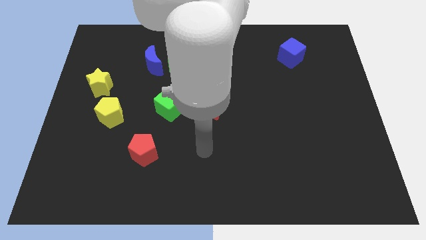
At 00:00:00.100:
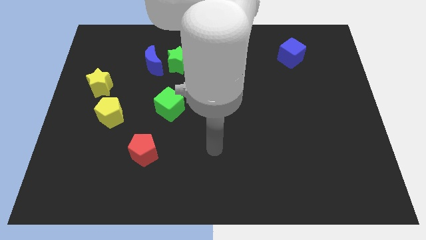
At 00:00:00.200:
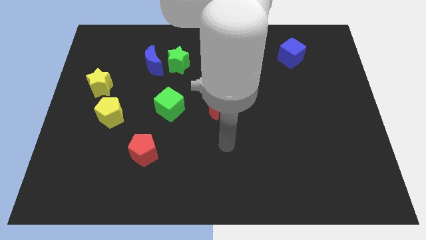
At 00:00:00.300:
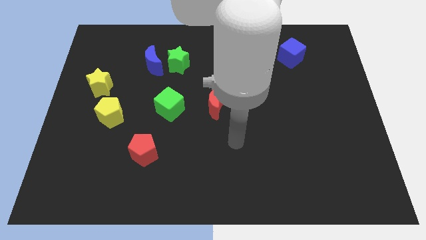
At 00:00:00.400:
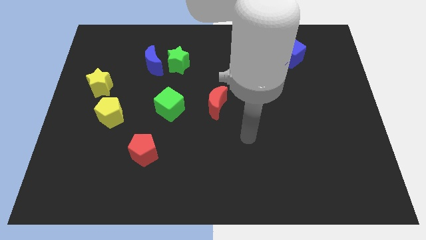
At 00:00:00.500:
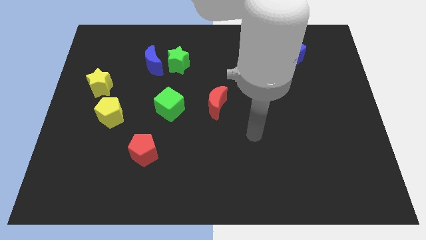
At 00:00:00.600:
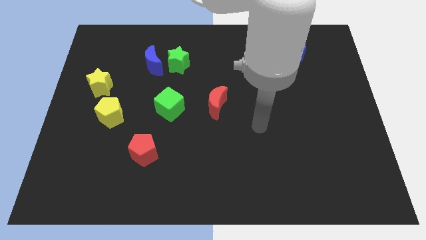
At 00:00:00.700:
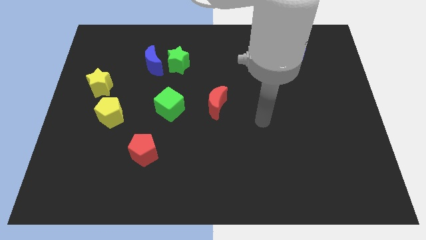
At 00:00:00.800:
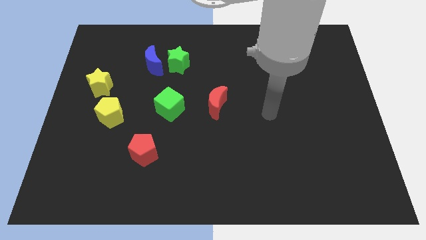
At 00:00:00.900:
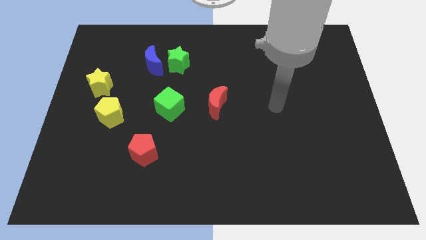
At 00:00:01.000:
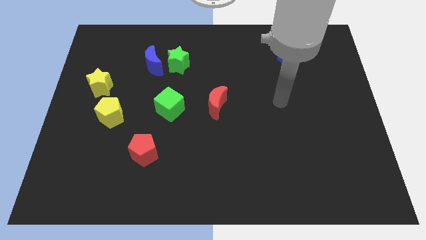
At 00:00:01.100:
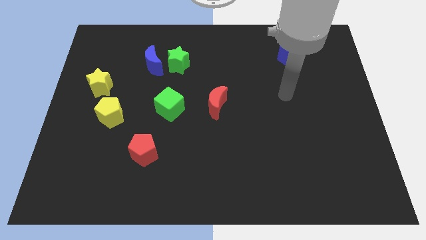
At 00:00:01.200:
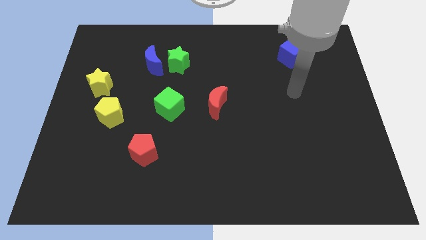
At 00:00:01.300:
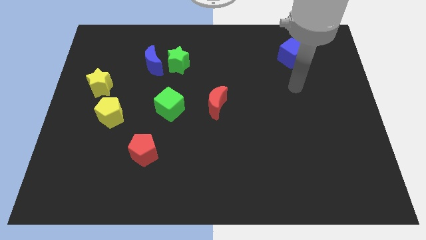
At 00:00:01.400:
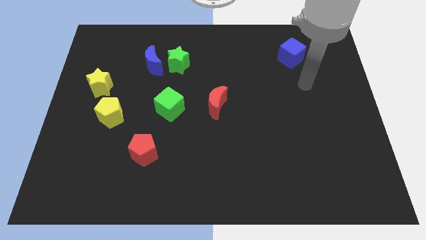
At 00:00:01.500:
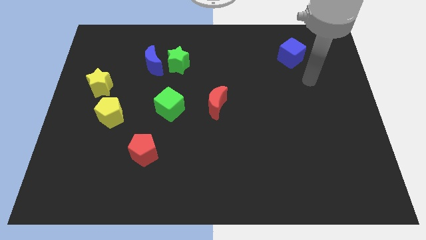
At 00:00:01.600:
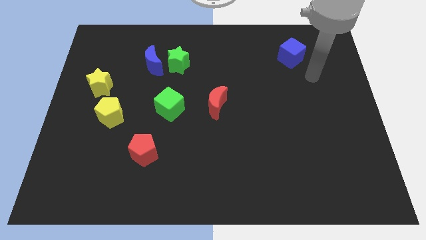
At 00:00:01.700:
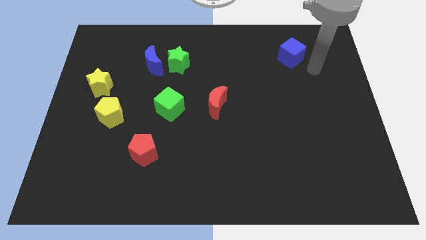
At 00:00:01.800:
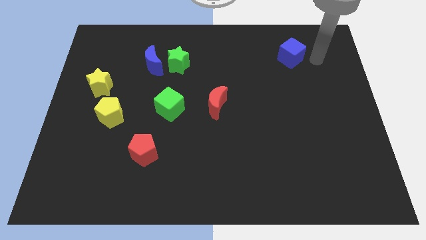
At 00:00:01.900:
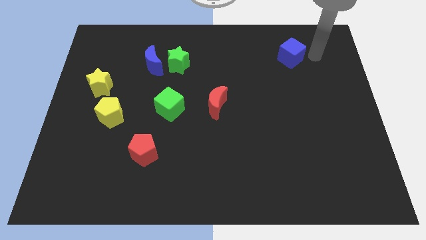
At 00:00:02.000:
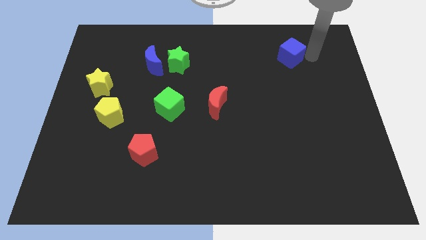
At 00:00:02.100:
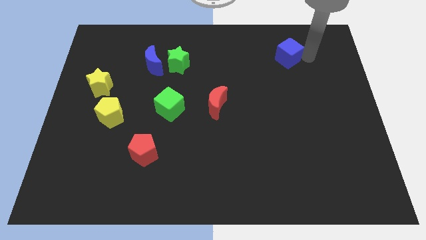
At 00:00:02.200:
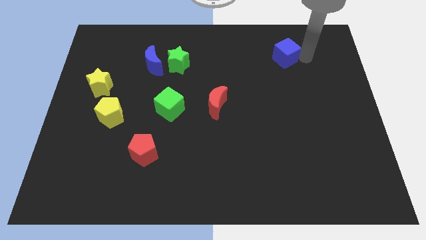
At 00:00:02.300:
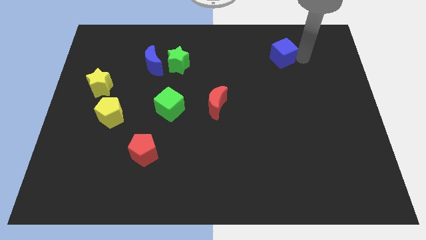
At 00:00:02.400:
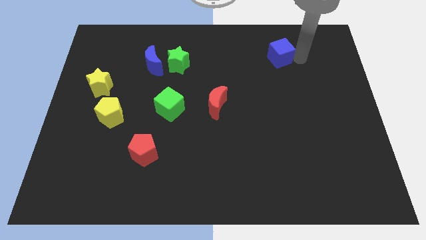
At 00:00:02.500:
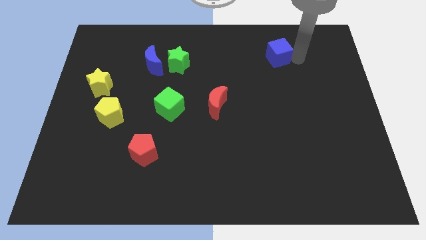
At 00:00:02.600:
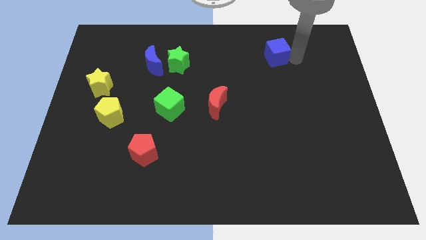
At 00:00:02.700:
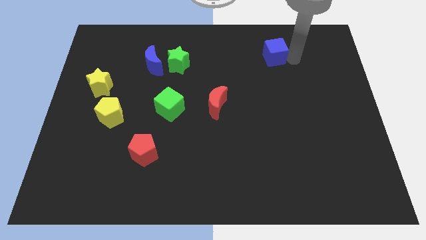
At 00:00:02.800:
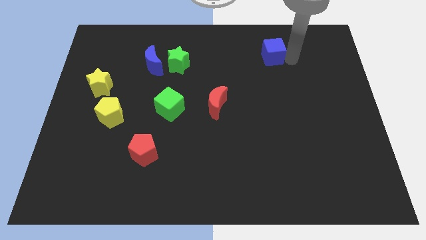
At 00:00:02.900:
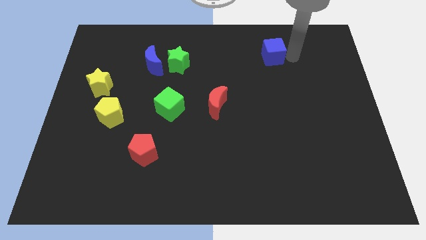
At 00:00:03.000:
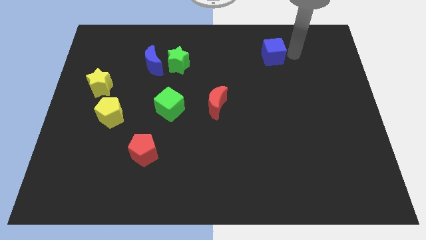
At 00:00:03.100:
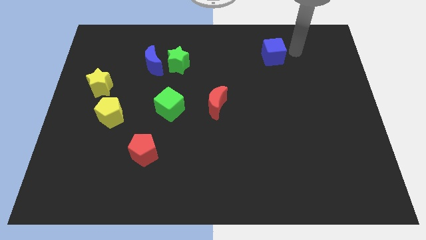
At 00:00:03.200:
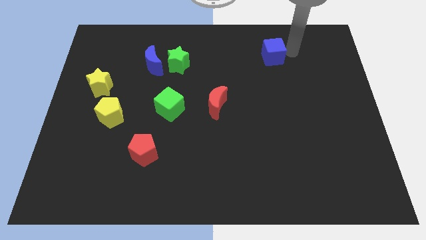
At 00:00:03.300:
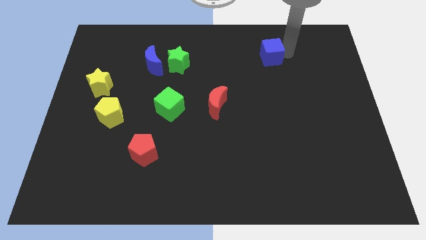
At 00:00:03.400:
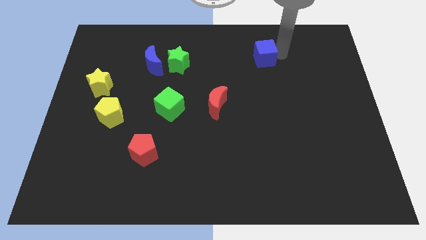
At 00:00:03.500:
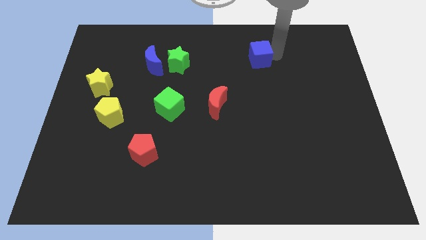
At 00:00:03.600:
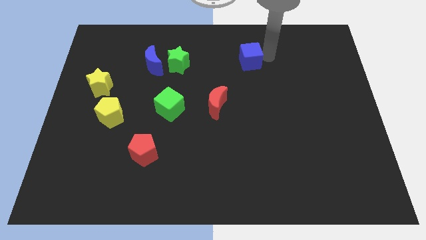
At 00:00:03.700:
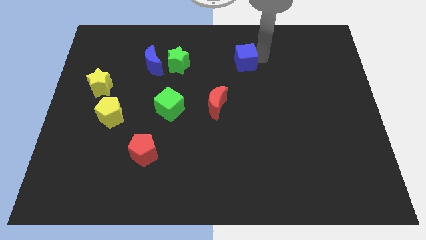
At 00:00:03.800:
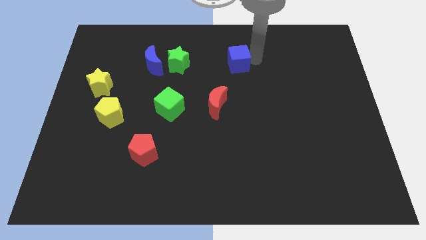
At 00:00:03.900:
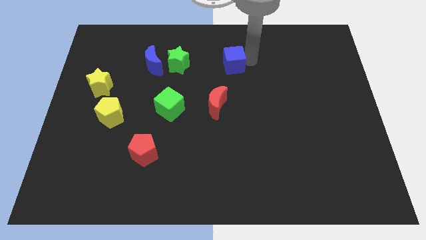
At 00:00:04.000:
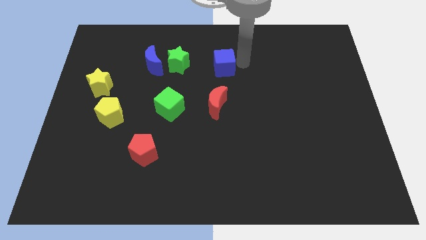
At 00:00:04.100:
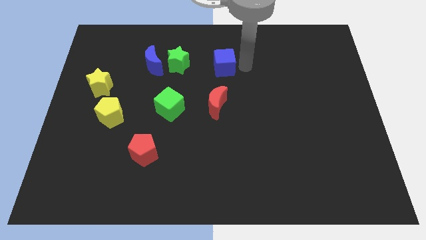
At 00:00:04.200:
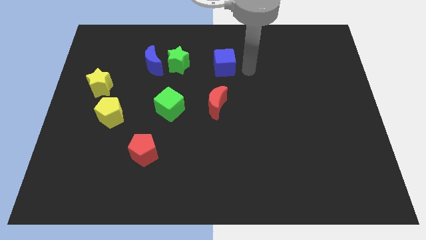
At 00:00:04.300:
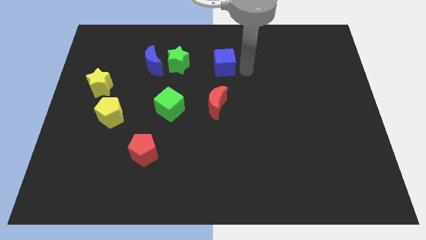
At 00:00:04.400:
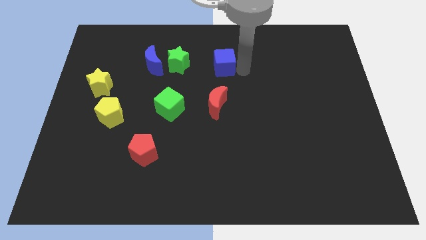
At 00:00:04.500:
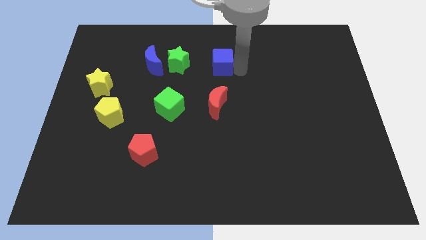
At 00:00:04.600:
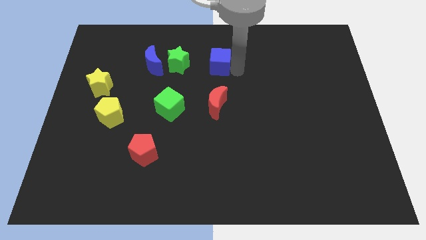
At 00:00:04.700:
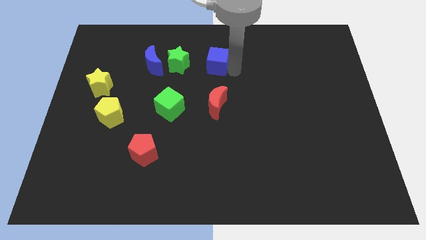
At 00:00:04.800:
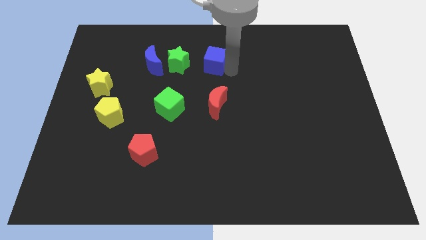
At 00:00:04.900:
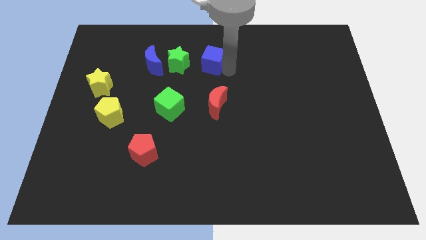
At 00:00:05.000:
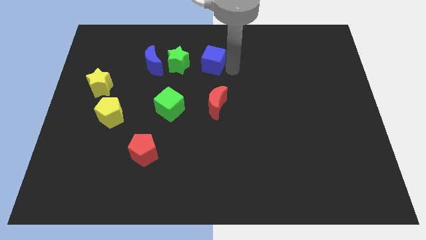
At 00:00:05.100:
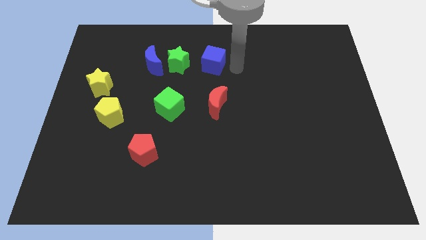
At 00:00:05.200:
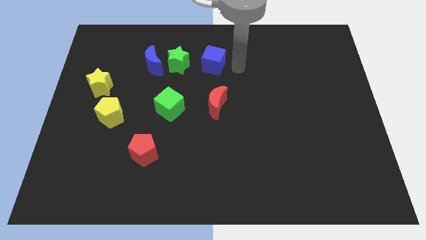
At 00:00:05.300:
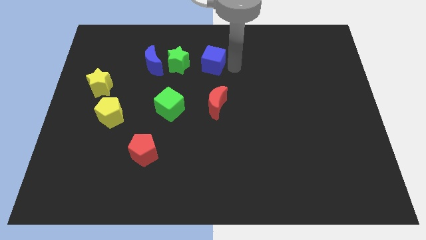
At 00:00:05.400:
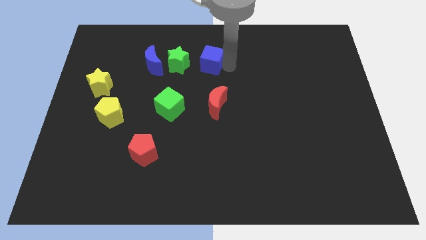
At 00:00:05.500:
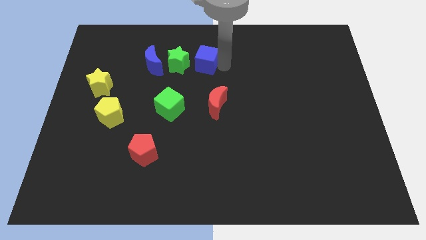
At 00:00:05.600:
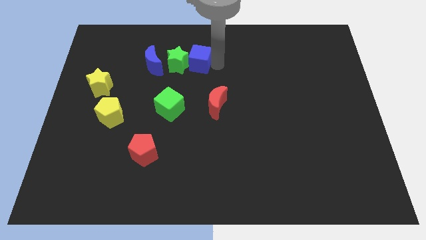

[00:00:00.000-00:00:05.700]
move the blue cube next to the green star
